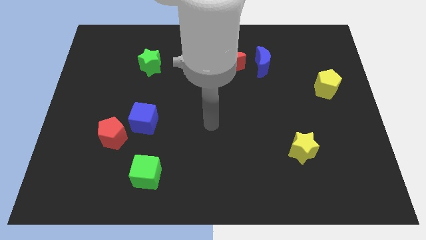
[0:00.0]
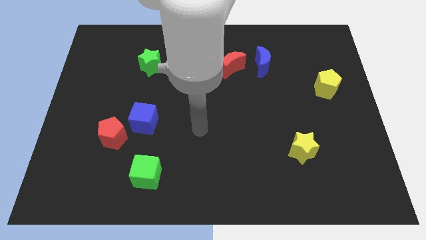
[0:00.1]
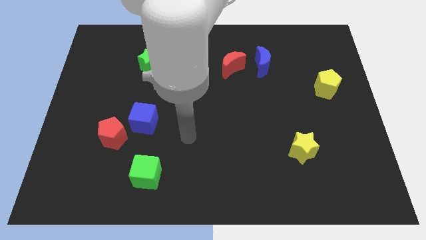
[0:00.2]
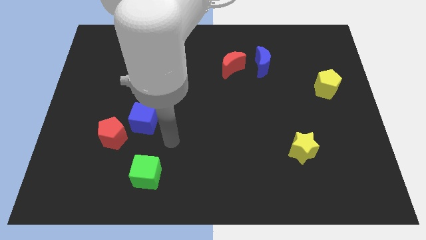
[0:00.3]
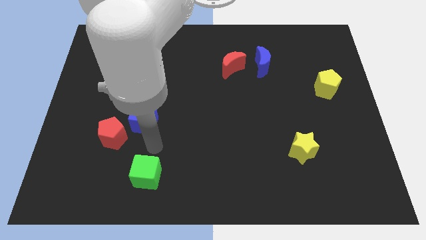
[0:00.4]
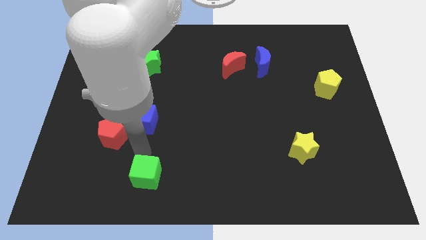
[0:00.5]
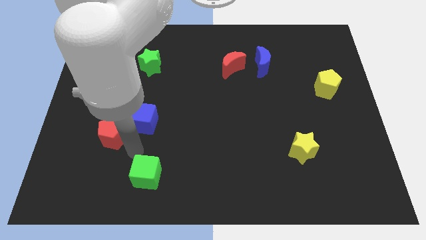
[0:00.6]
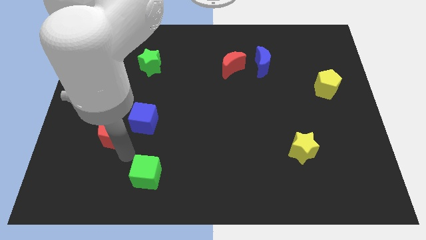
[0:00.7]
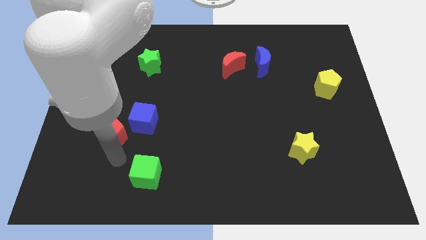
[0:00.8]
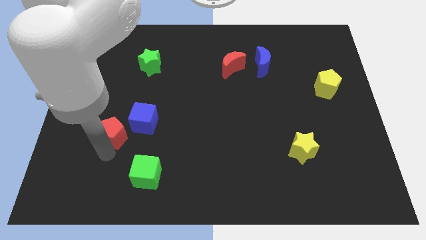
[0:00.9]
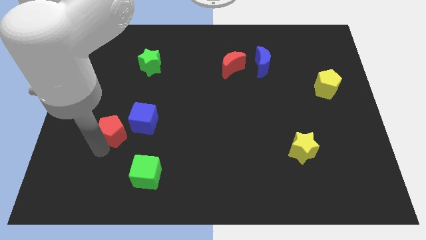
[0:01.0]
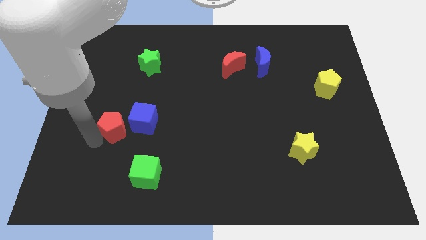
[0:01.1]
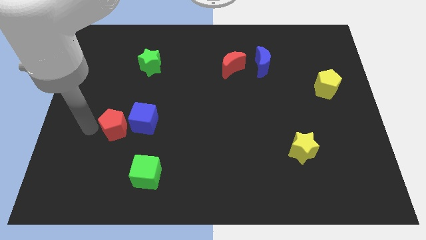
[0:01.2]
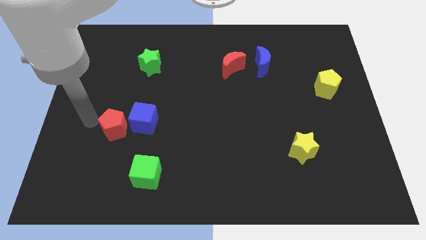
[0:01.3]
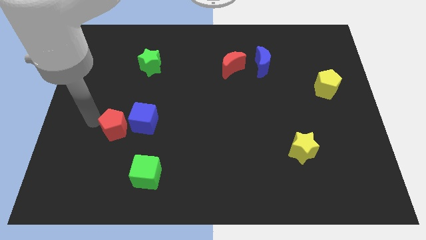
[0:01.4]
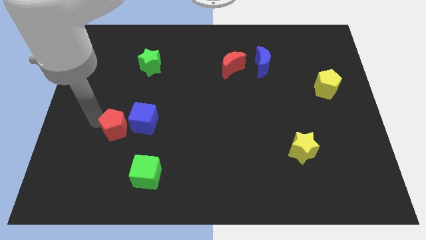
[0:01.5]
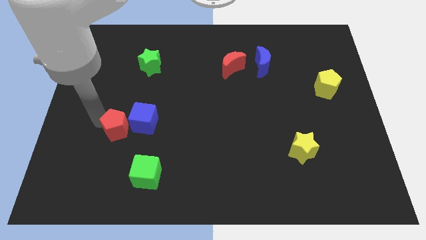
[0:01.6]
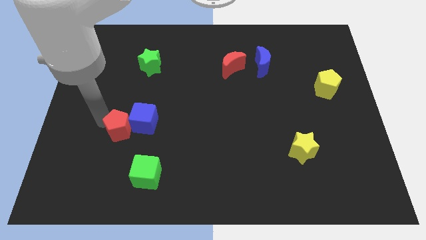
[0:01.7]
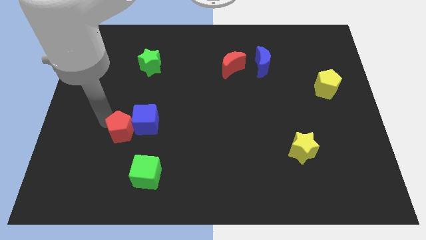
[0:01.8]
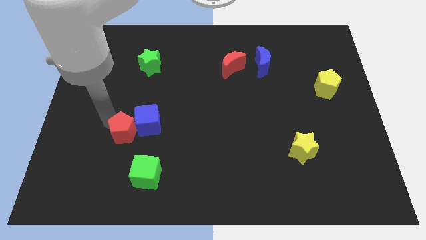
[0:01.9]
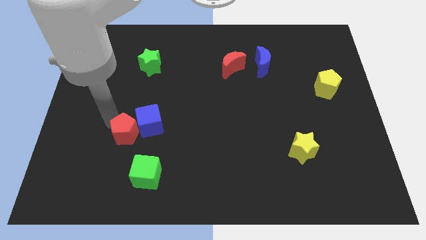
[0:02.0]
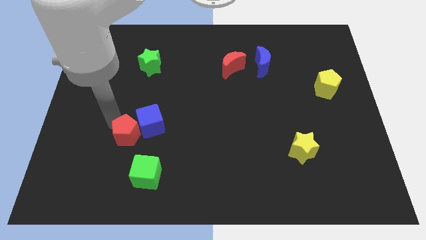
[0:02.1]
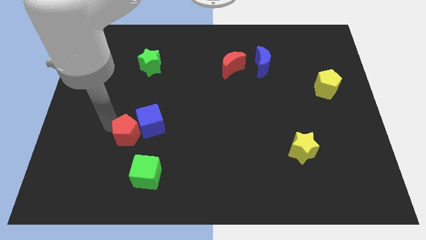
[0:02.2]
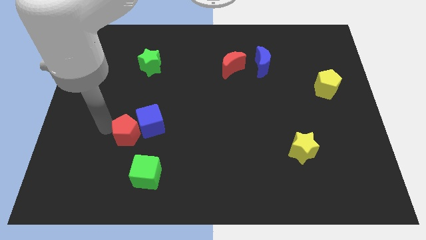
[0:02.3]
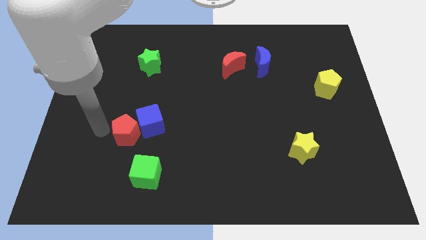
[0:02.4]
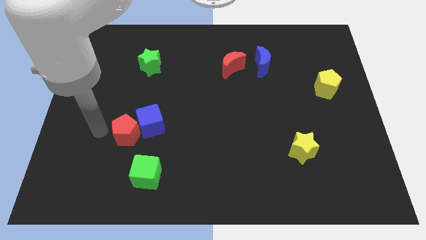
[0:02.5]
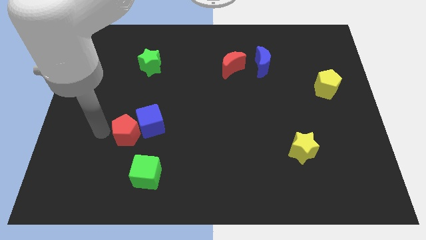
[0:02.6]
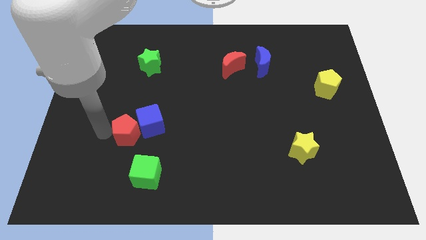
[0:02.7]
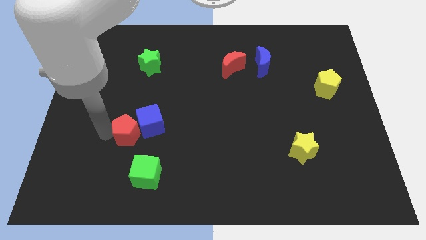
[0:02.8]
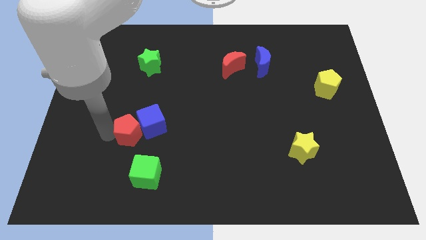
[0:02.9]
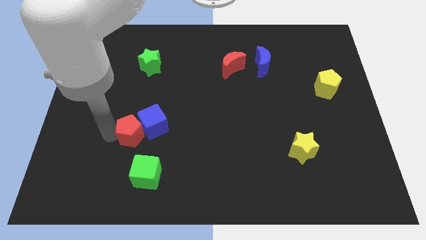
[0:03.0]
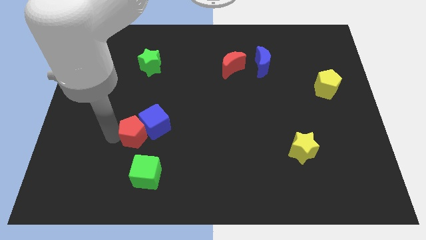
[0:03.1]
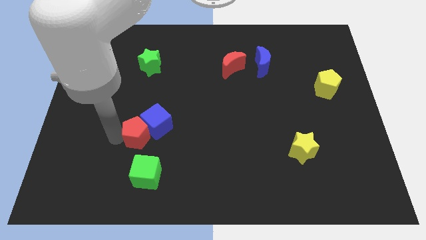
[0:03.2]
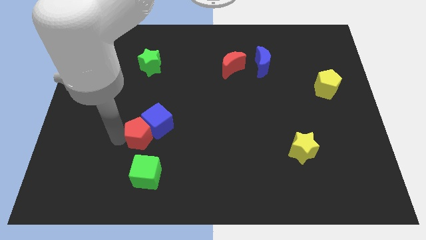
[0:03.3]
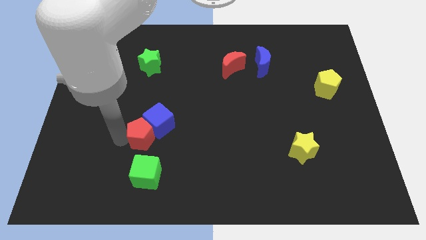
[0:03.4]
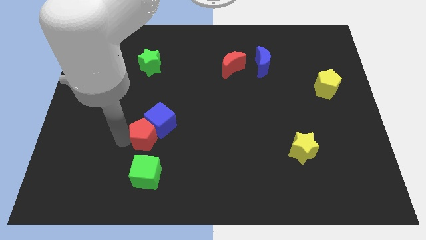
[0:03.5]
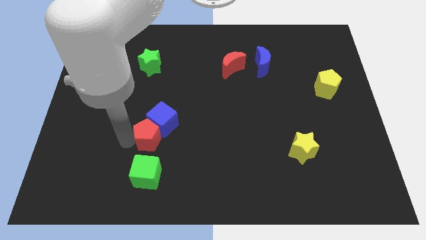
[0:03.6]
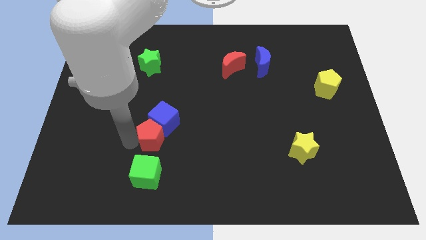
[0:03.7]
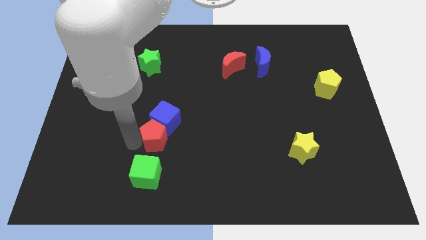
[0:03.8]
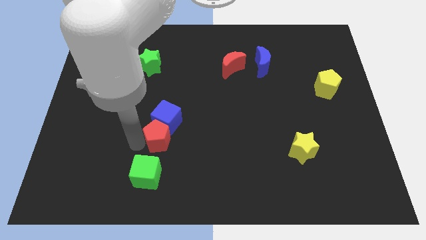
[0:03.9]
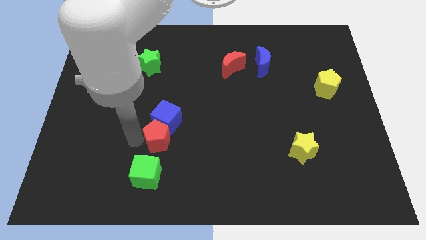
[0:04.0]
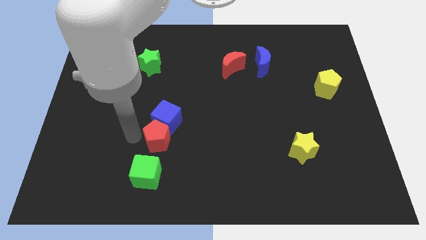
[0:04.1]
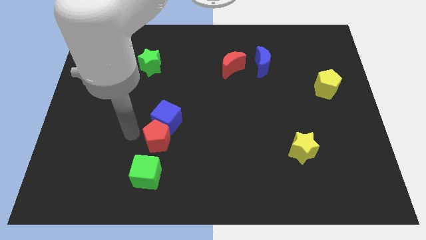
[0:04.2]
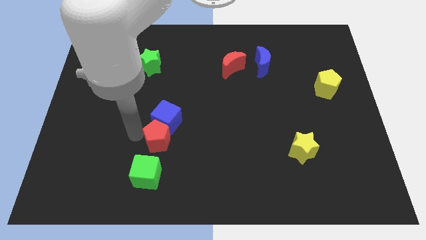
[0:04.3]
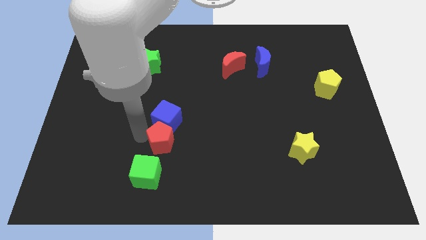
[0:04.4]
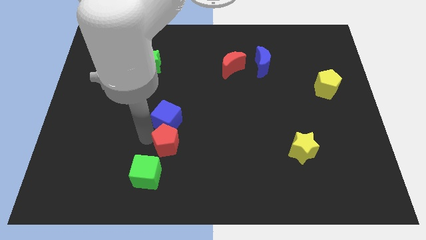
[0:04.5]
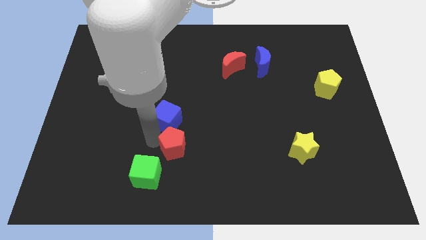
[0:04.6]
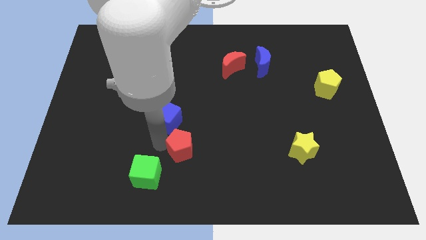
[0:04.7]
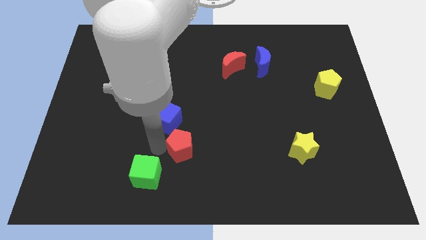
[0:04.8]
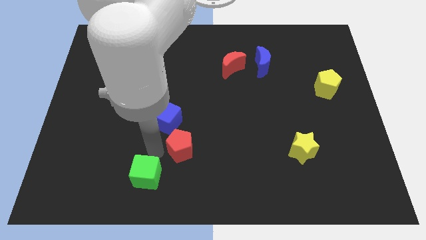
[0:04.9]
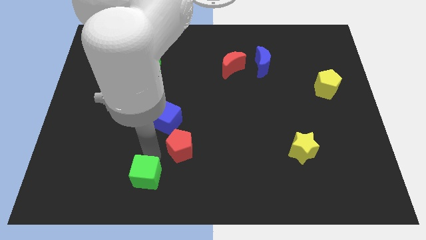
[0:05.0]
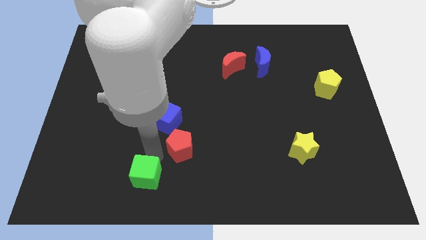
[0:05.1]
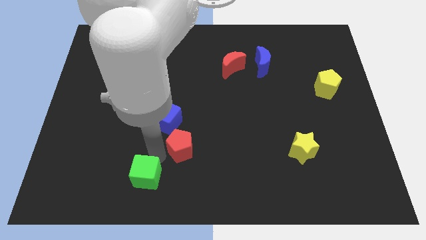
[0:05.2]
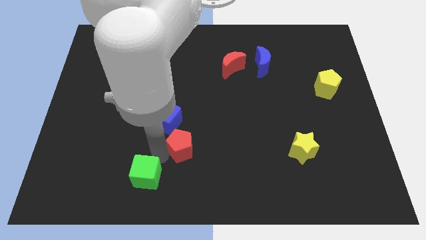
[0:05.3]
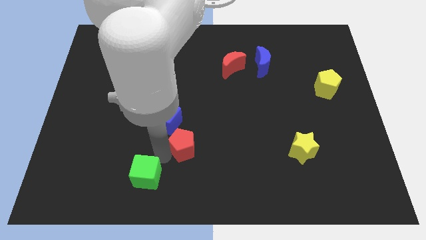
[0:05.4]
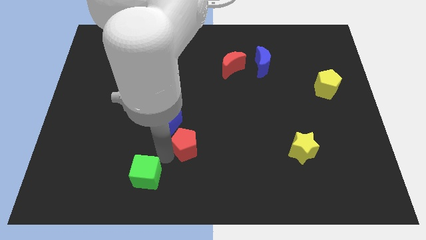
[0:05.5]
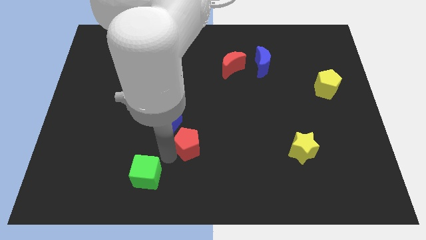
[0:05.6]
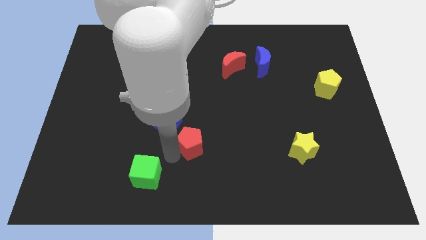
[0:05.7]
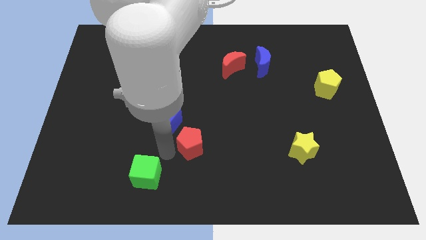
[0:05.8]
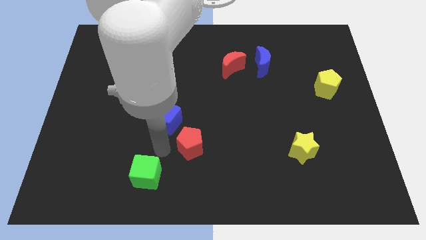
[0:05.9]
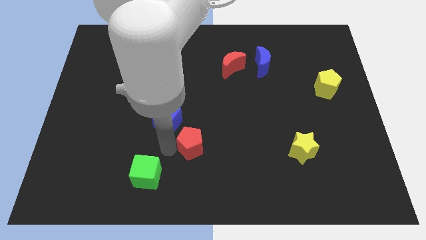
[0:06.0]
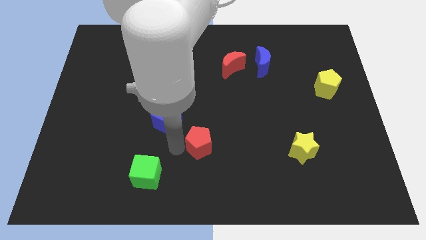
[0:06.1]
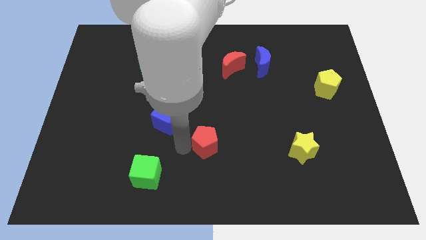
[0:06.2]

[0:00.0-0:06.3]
push the red pentagon right

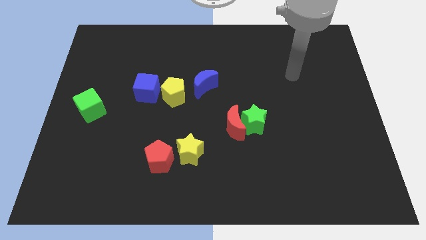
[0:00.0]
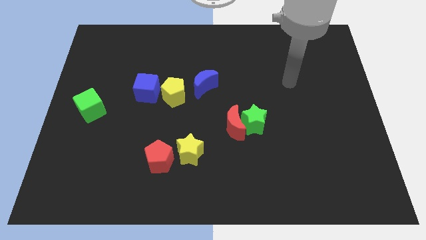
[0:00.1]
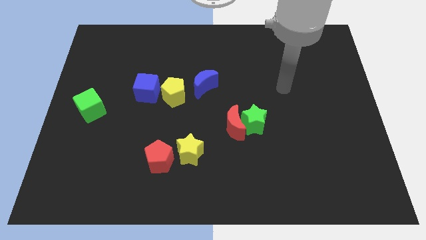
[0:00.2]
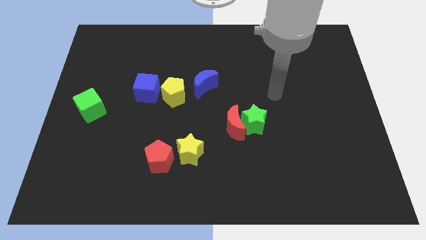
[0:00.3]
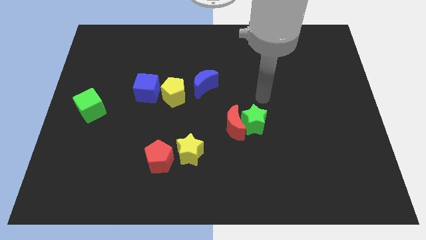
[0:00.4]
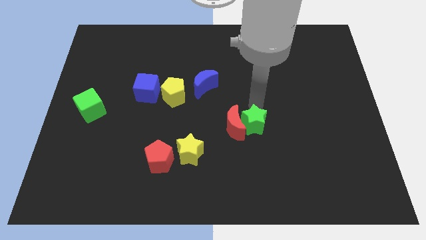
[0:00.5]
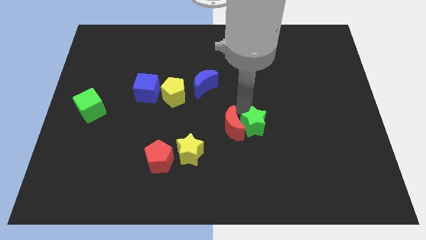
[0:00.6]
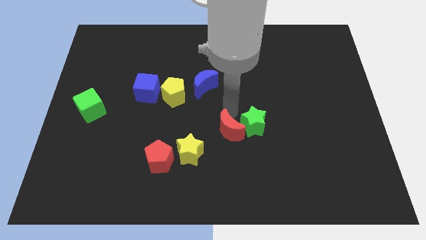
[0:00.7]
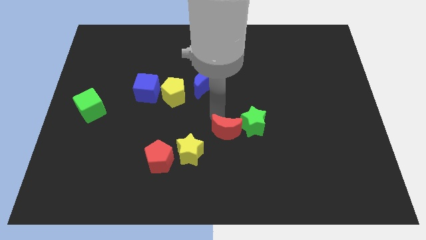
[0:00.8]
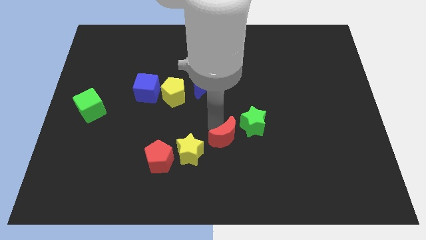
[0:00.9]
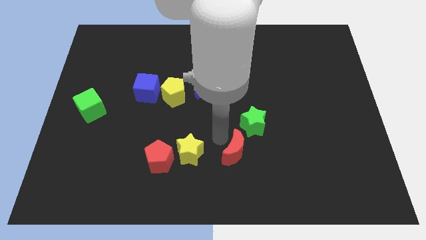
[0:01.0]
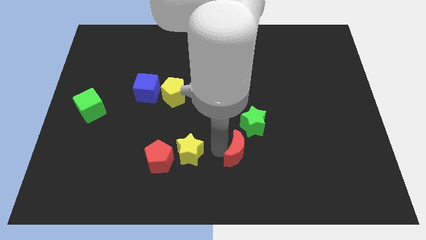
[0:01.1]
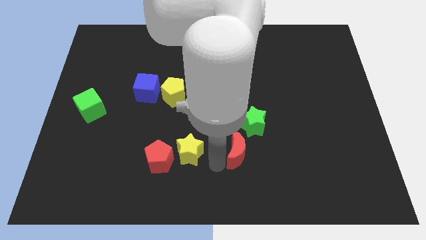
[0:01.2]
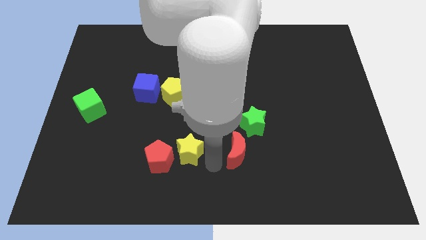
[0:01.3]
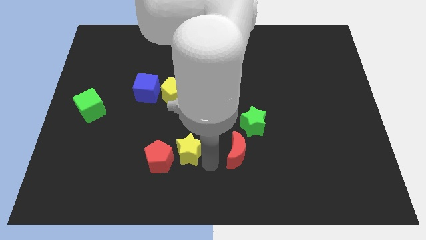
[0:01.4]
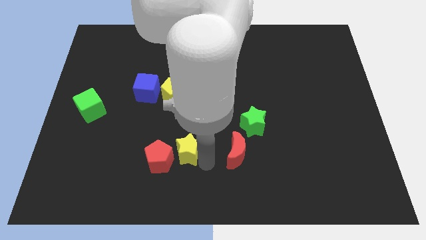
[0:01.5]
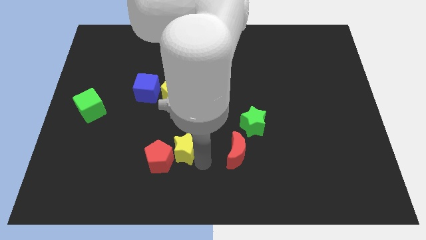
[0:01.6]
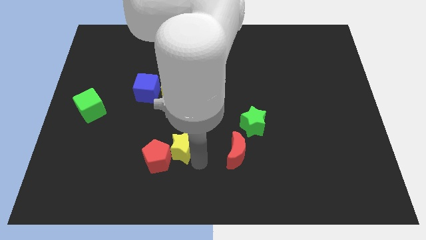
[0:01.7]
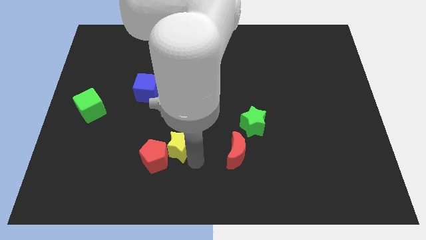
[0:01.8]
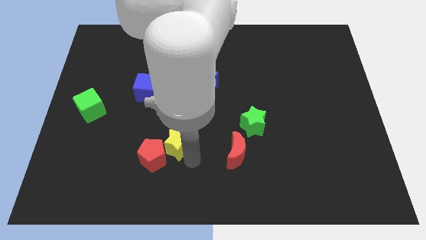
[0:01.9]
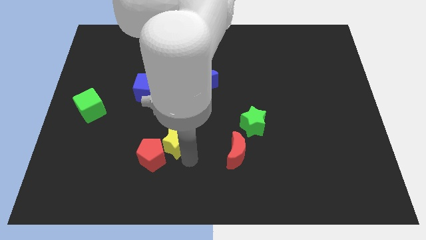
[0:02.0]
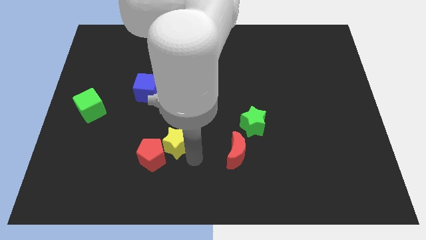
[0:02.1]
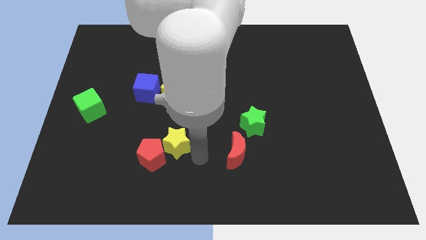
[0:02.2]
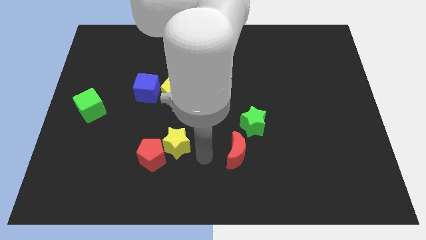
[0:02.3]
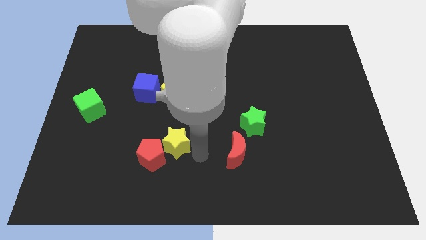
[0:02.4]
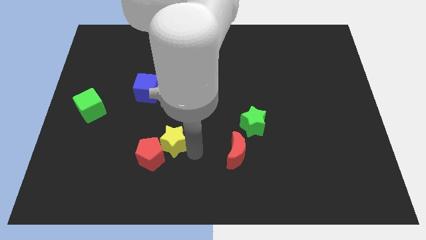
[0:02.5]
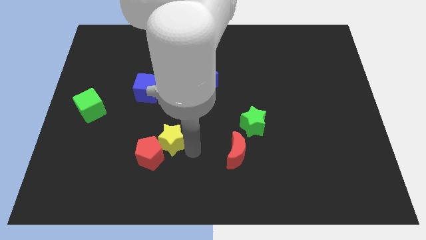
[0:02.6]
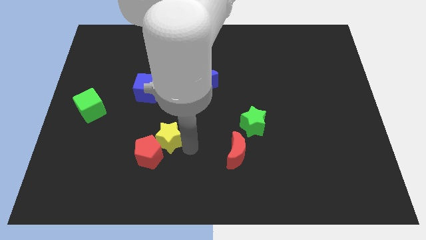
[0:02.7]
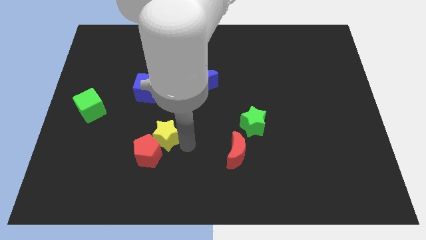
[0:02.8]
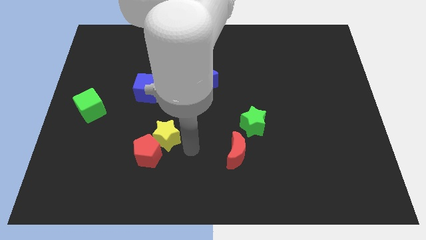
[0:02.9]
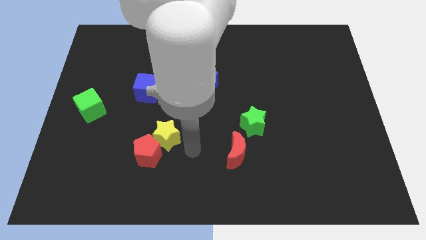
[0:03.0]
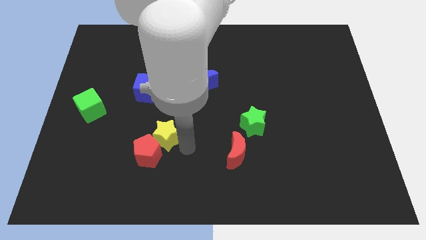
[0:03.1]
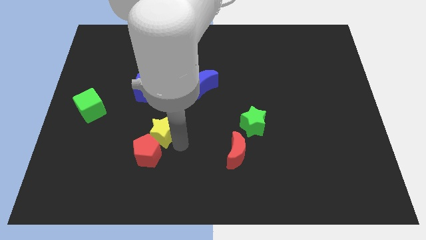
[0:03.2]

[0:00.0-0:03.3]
slightly slide the yellow star diagonally upwards and left
